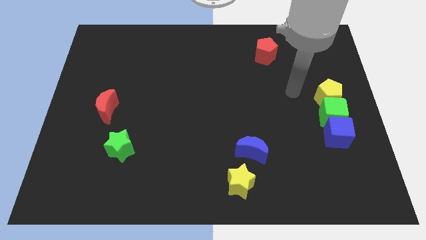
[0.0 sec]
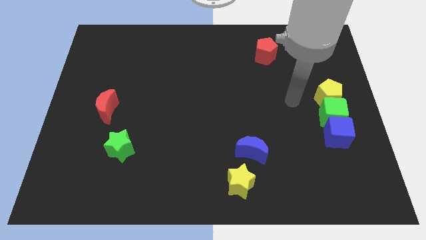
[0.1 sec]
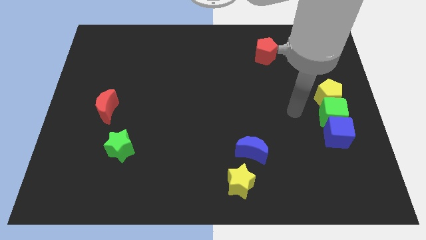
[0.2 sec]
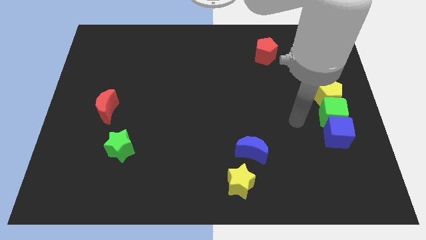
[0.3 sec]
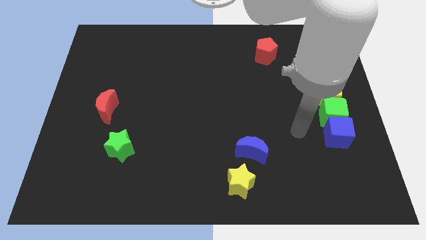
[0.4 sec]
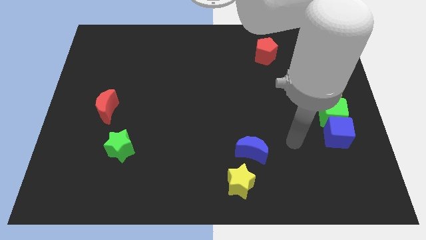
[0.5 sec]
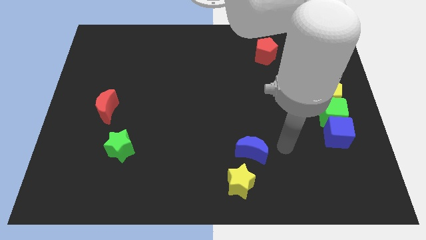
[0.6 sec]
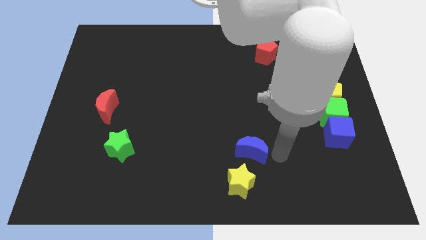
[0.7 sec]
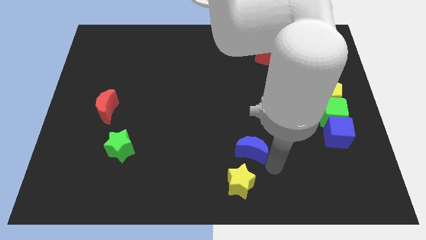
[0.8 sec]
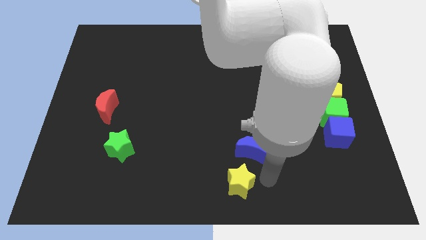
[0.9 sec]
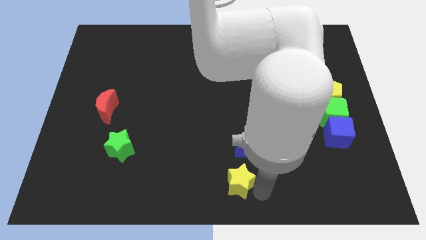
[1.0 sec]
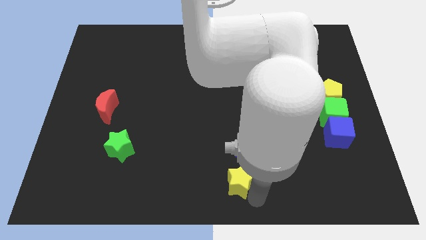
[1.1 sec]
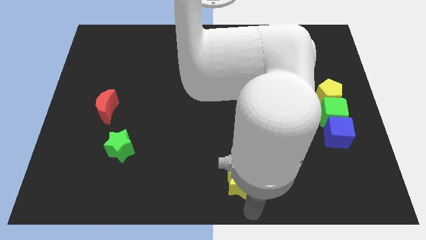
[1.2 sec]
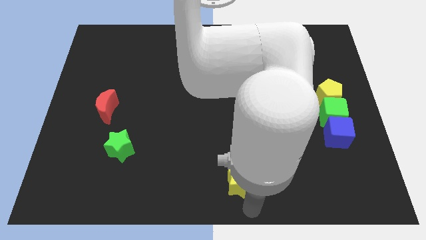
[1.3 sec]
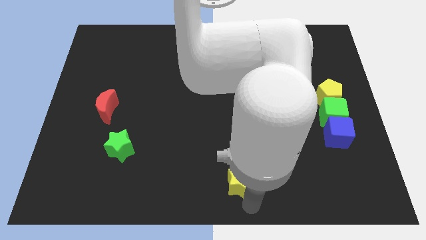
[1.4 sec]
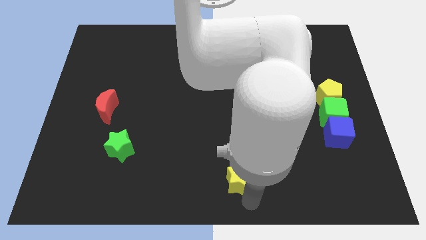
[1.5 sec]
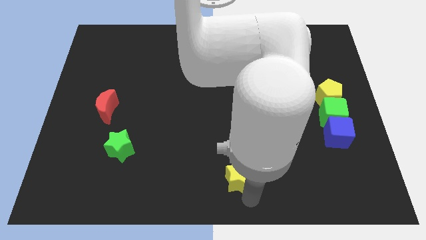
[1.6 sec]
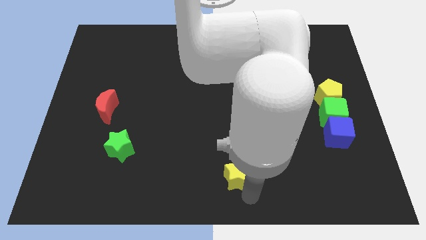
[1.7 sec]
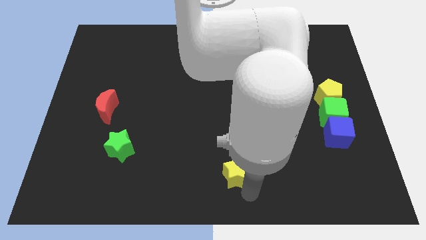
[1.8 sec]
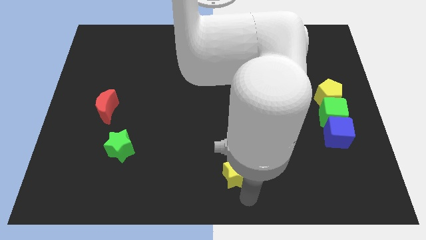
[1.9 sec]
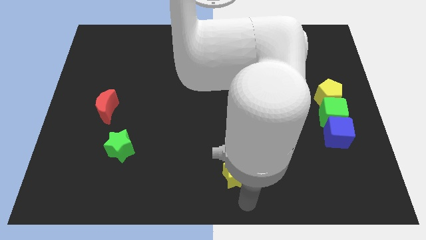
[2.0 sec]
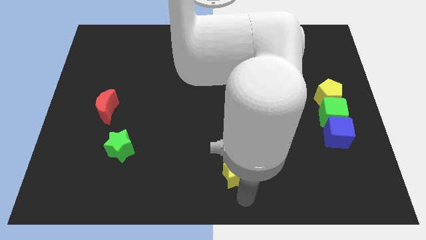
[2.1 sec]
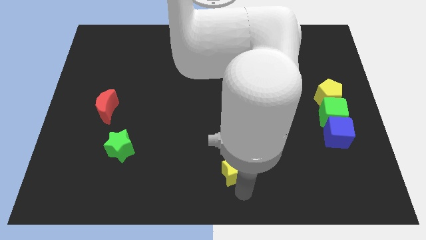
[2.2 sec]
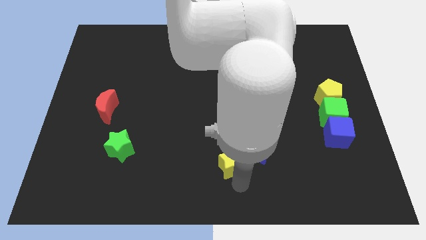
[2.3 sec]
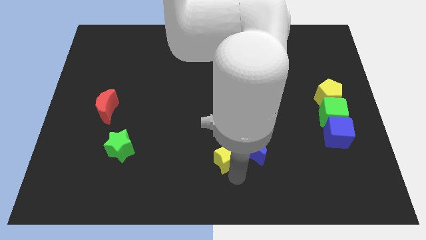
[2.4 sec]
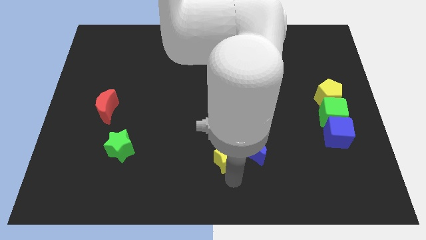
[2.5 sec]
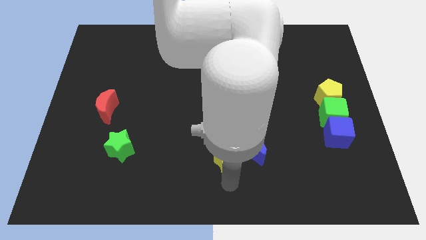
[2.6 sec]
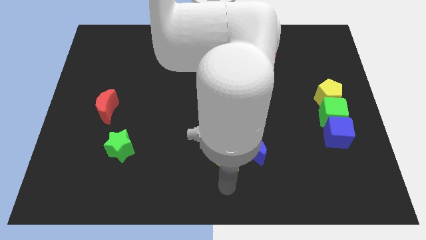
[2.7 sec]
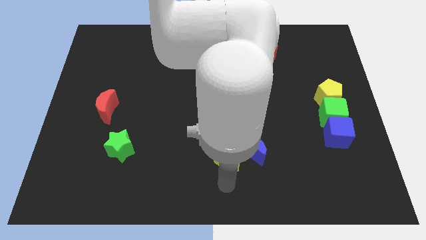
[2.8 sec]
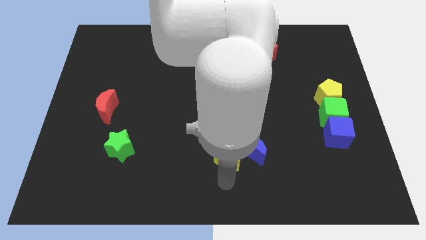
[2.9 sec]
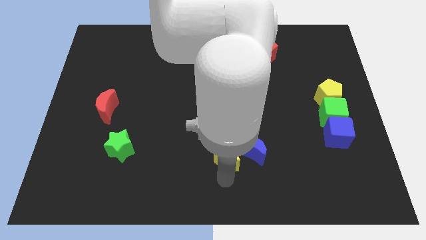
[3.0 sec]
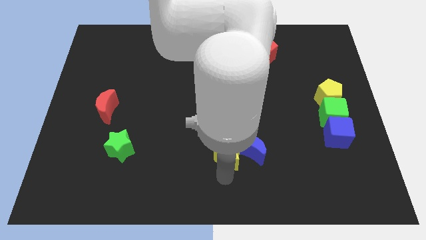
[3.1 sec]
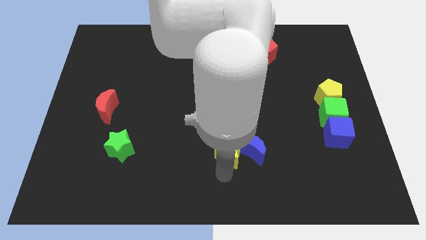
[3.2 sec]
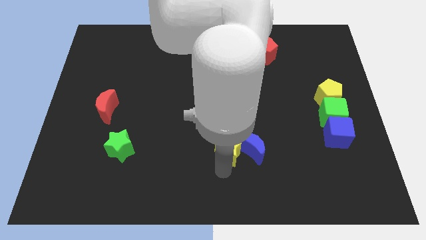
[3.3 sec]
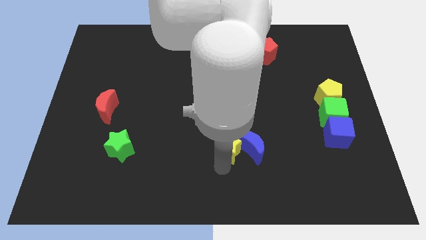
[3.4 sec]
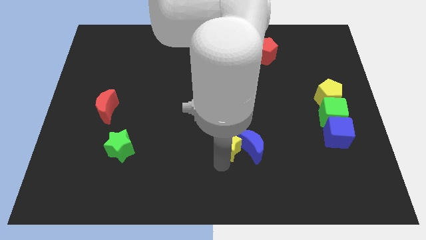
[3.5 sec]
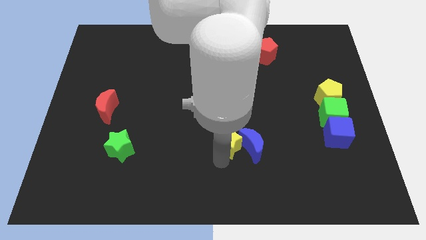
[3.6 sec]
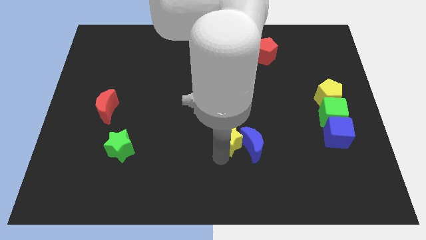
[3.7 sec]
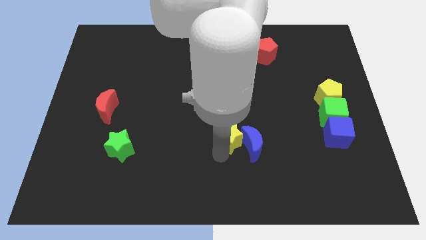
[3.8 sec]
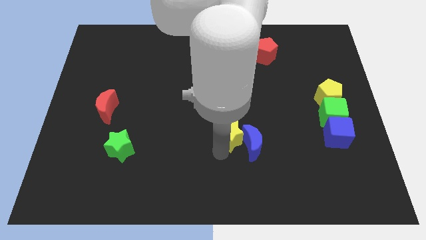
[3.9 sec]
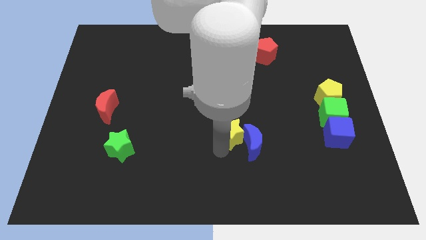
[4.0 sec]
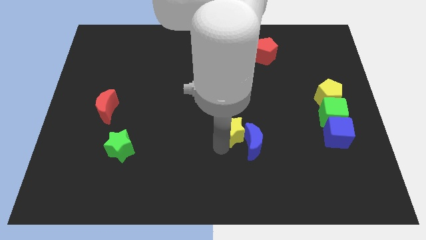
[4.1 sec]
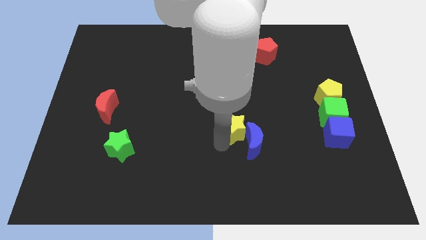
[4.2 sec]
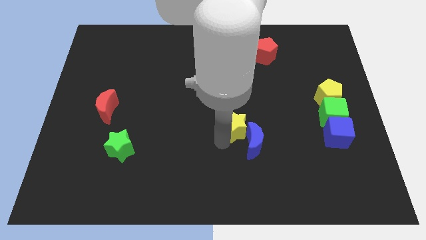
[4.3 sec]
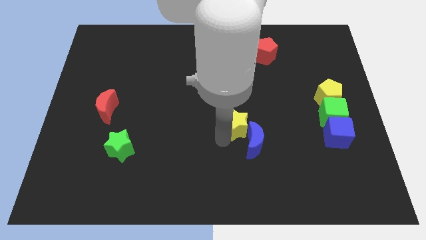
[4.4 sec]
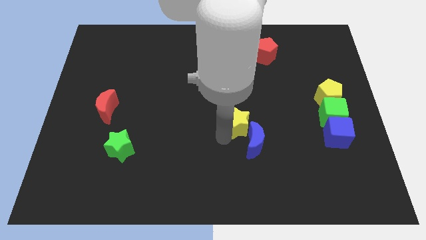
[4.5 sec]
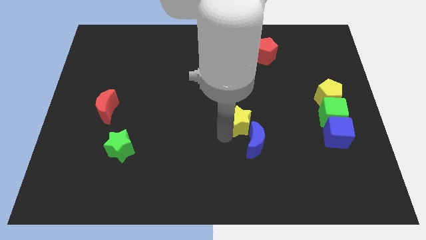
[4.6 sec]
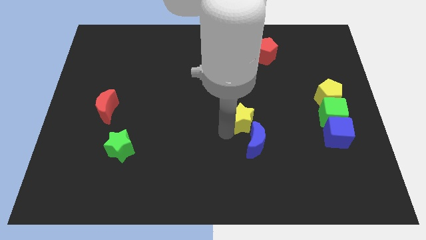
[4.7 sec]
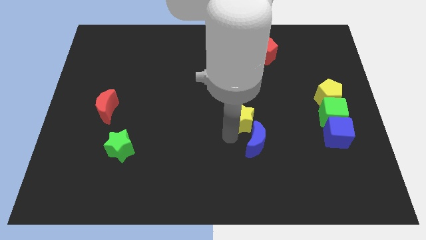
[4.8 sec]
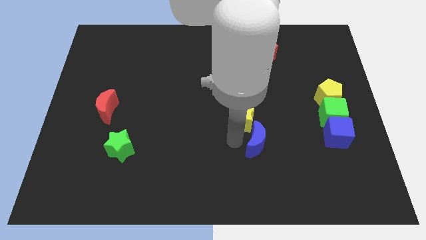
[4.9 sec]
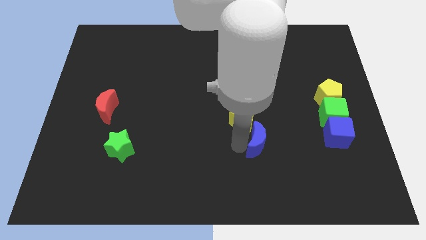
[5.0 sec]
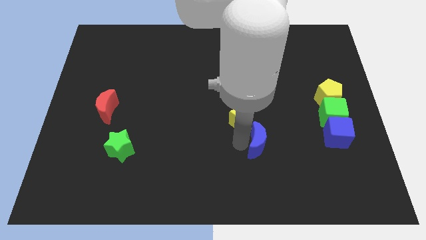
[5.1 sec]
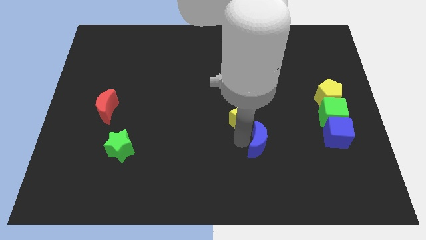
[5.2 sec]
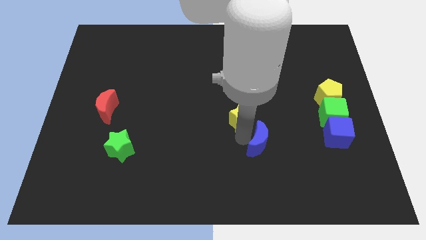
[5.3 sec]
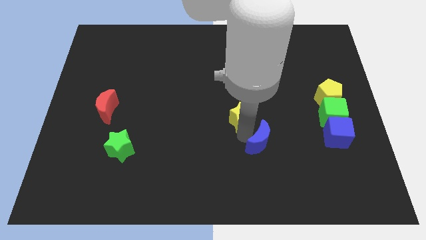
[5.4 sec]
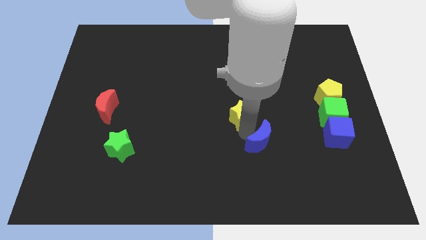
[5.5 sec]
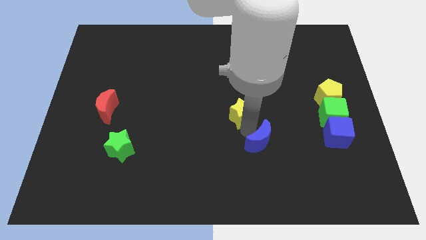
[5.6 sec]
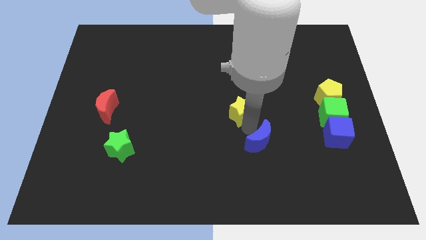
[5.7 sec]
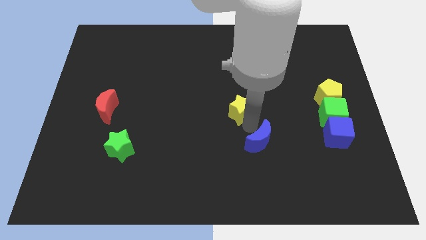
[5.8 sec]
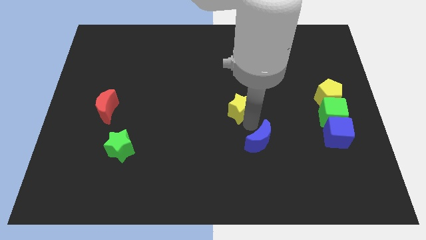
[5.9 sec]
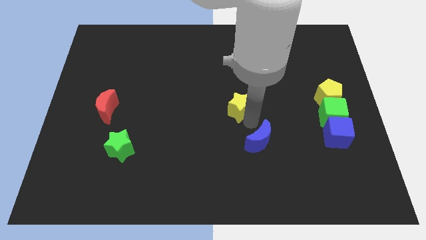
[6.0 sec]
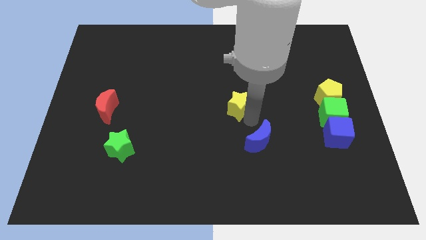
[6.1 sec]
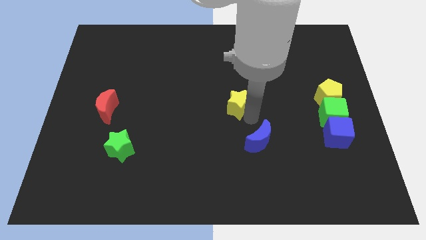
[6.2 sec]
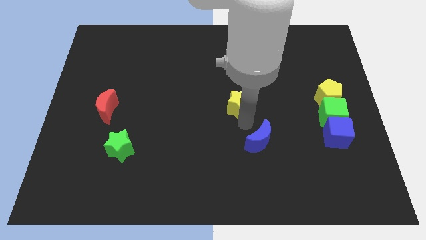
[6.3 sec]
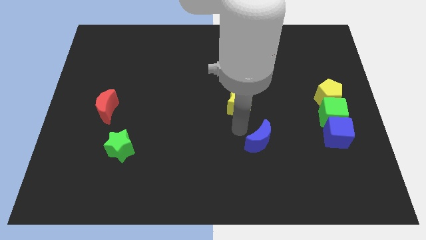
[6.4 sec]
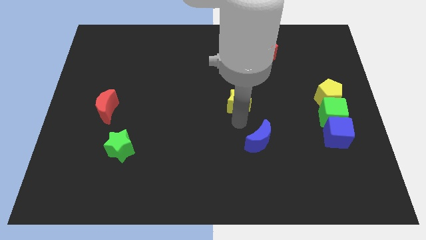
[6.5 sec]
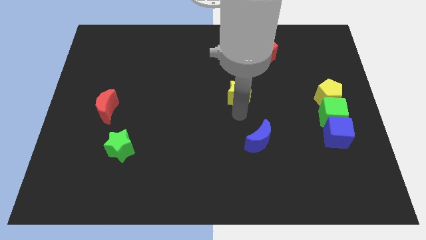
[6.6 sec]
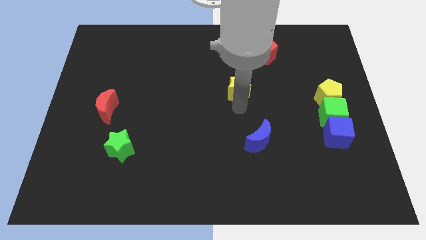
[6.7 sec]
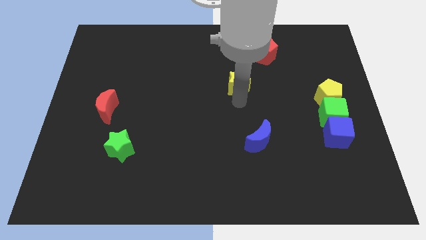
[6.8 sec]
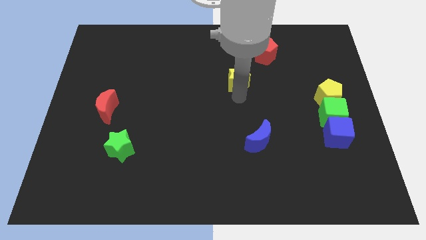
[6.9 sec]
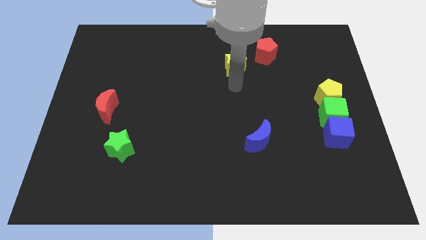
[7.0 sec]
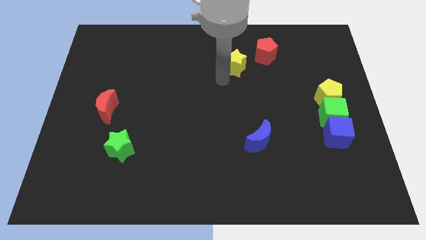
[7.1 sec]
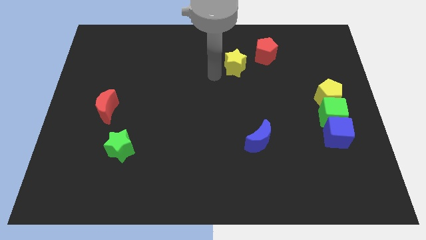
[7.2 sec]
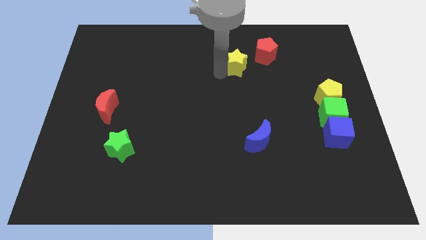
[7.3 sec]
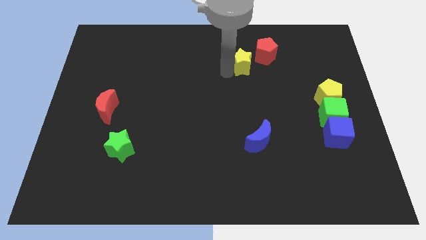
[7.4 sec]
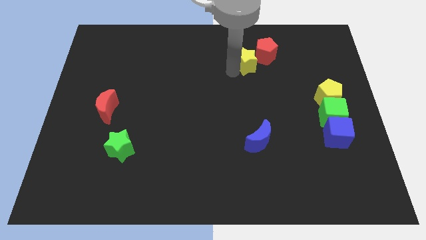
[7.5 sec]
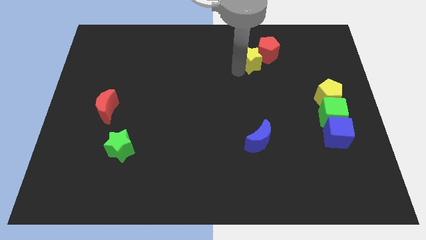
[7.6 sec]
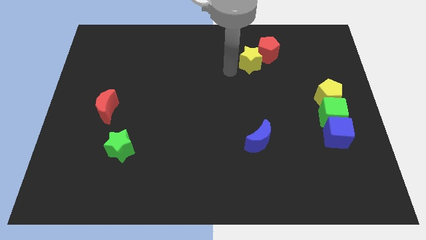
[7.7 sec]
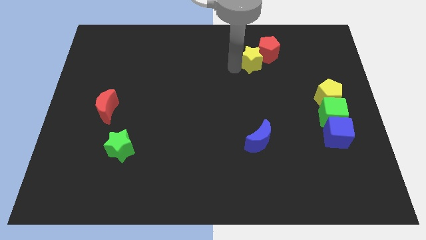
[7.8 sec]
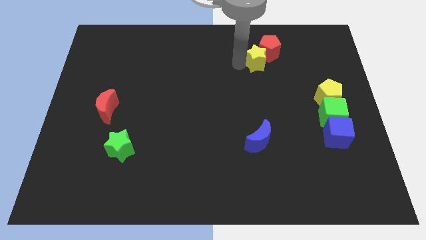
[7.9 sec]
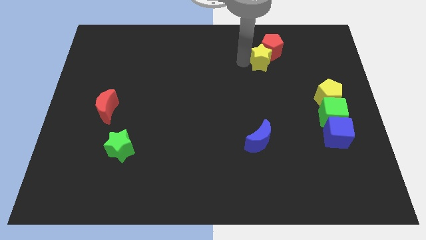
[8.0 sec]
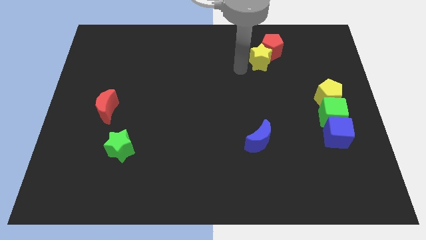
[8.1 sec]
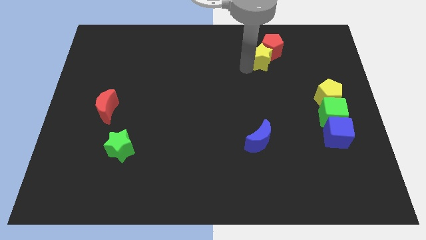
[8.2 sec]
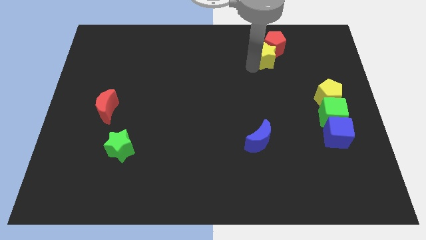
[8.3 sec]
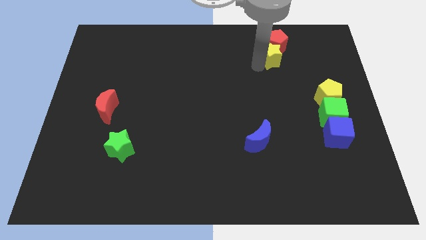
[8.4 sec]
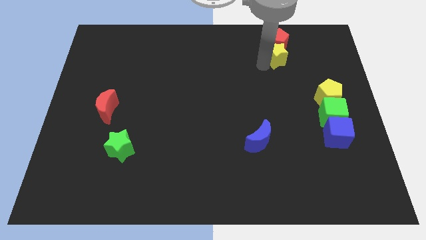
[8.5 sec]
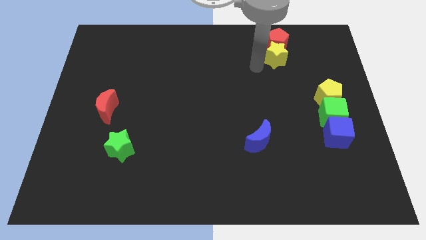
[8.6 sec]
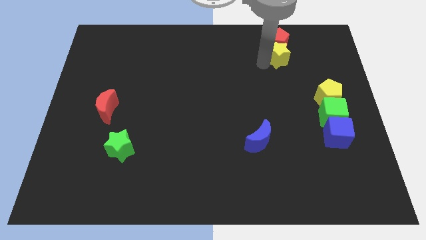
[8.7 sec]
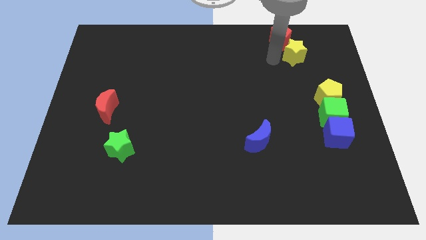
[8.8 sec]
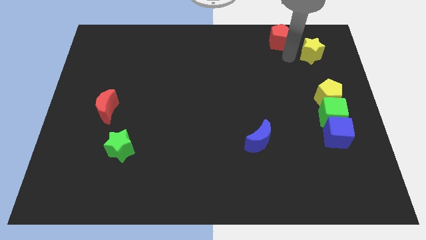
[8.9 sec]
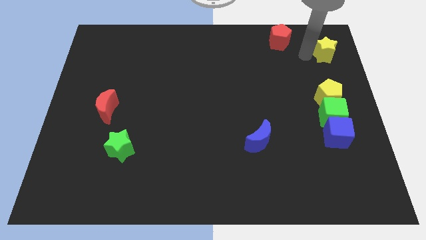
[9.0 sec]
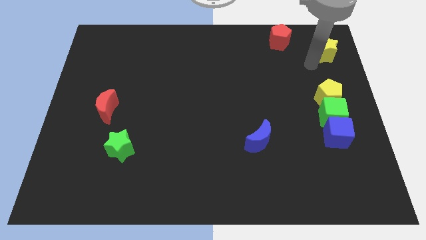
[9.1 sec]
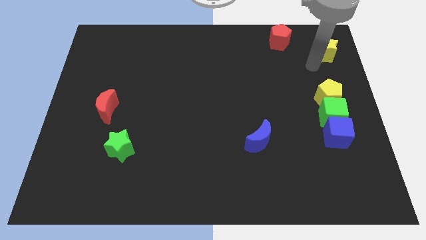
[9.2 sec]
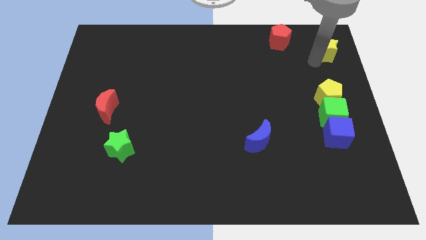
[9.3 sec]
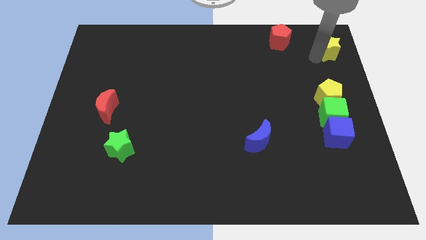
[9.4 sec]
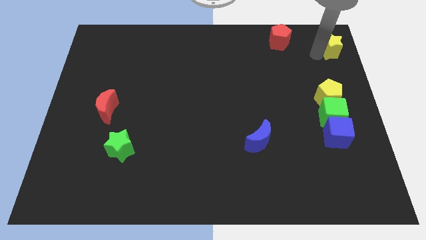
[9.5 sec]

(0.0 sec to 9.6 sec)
push the yellow star to the top right
